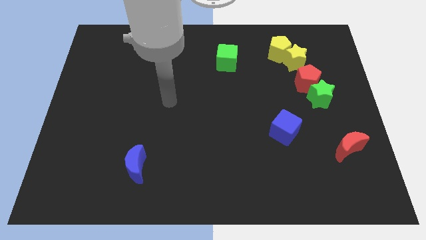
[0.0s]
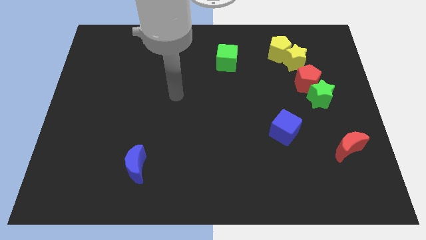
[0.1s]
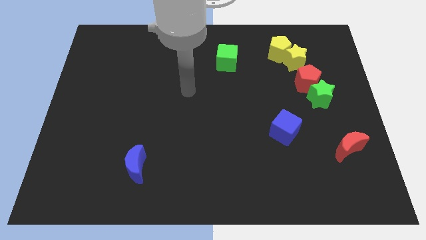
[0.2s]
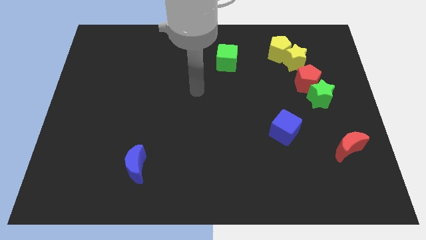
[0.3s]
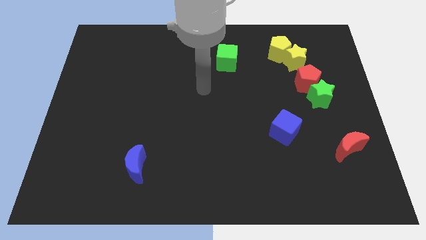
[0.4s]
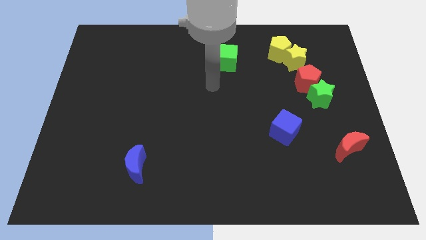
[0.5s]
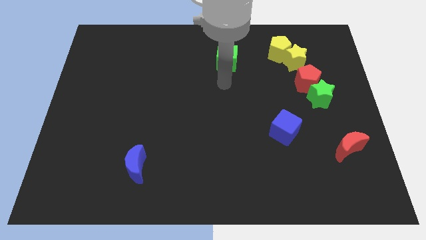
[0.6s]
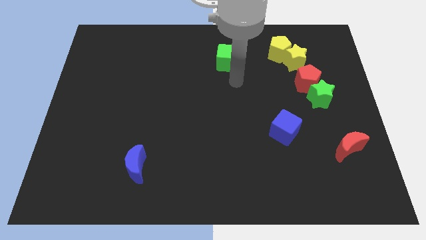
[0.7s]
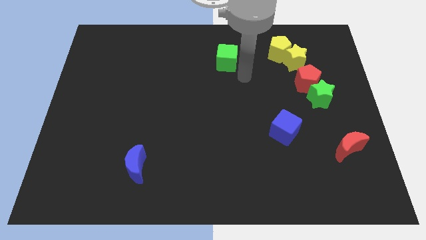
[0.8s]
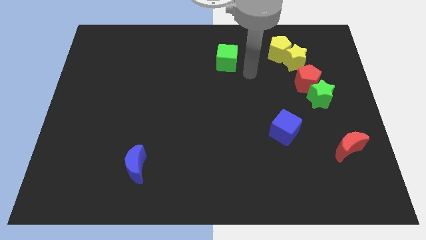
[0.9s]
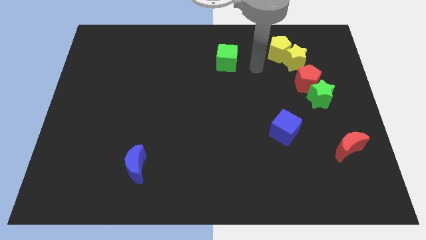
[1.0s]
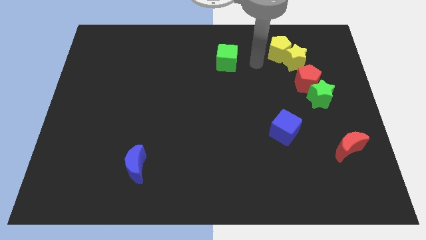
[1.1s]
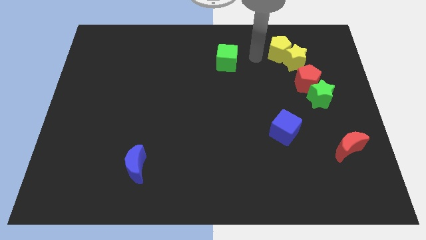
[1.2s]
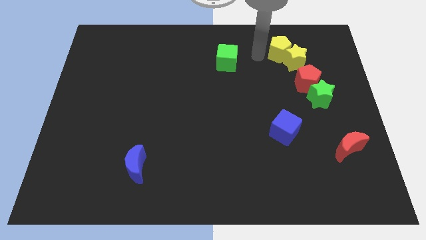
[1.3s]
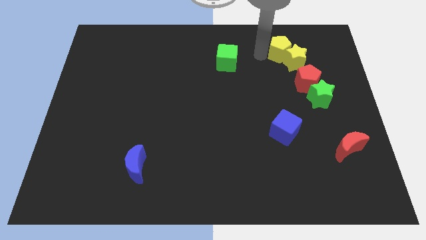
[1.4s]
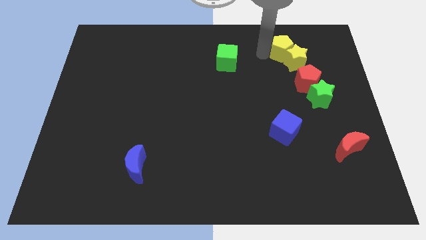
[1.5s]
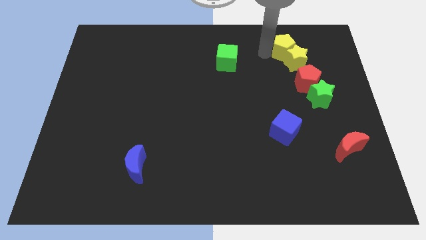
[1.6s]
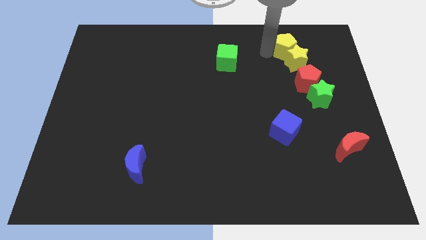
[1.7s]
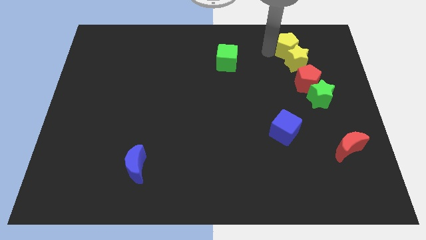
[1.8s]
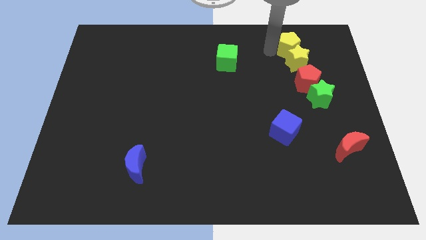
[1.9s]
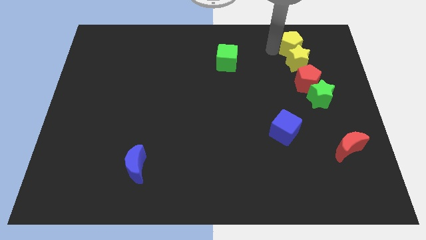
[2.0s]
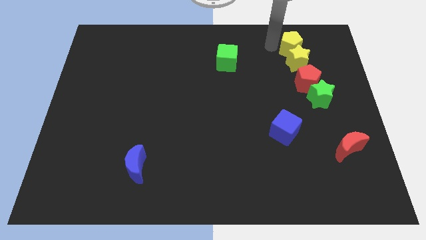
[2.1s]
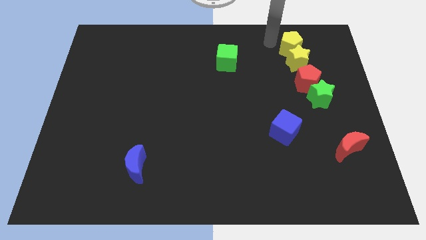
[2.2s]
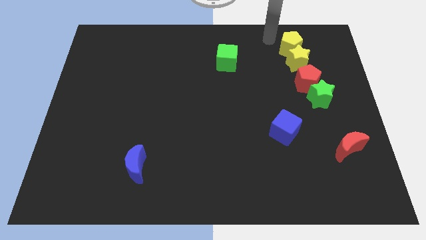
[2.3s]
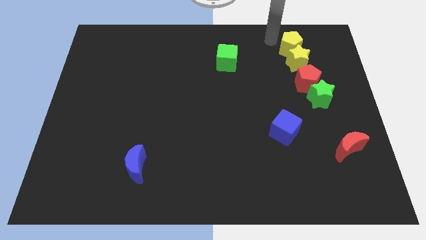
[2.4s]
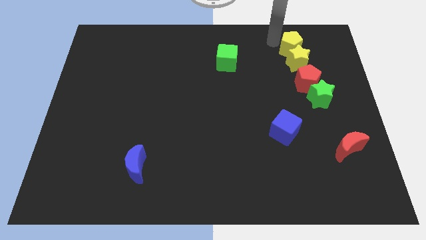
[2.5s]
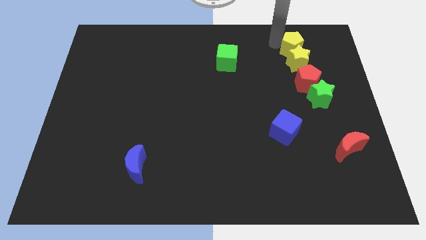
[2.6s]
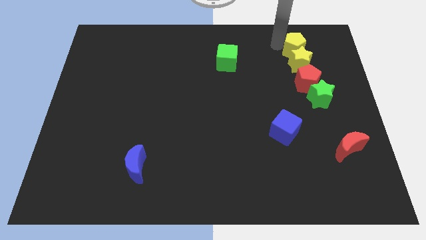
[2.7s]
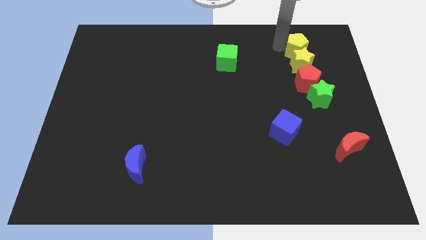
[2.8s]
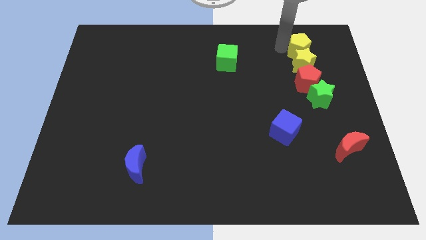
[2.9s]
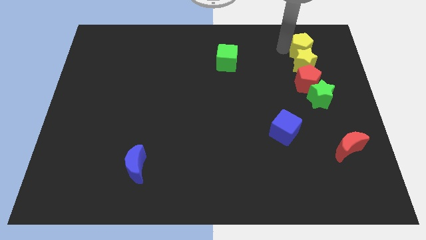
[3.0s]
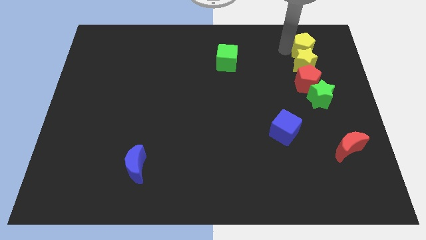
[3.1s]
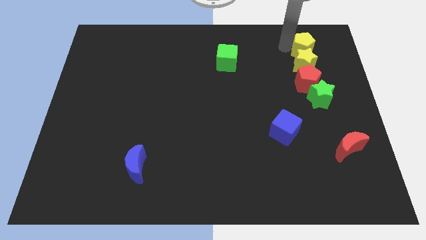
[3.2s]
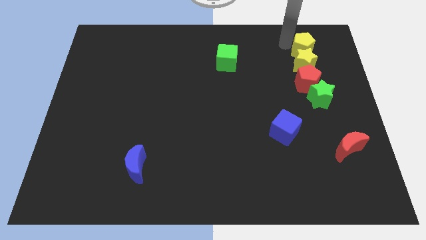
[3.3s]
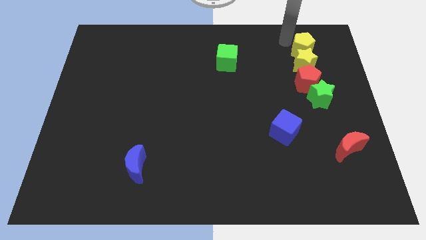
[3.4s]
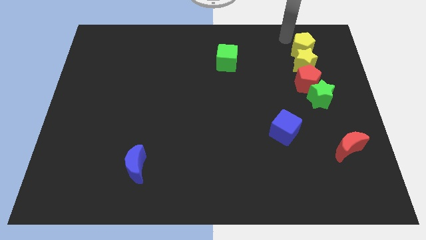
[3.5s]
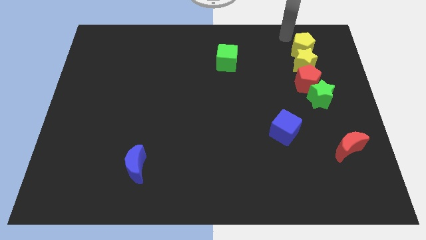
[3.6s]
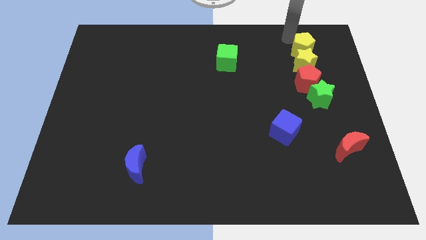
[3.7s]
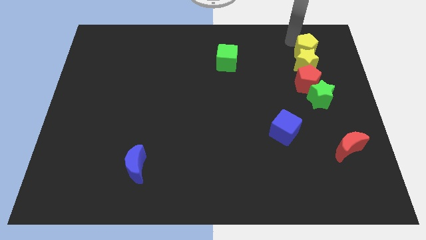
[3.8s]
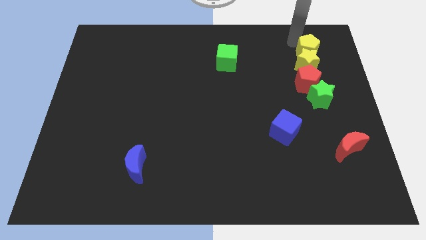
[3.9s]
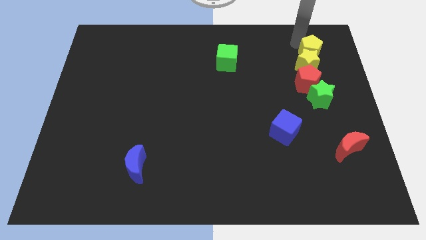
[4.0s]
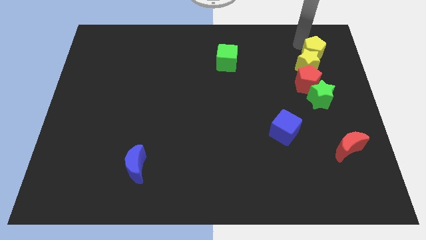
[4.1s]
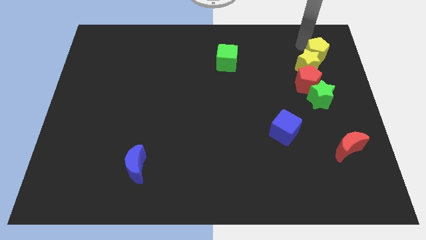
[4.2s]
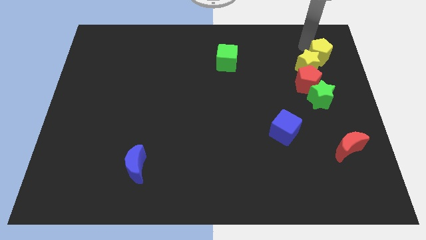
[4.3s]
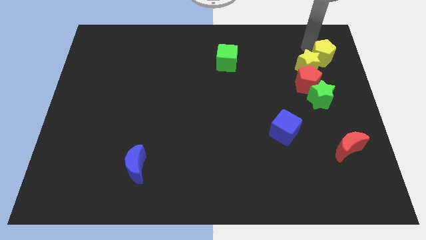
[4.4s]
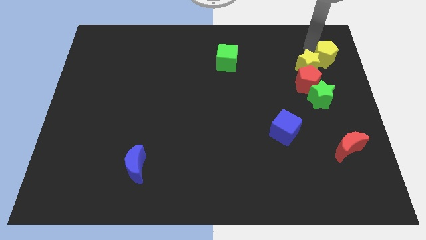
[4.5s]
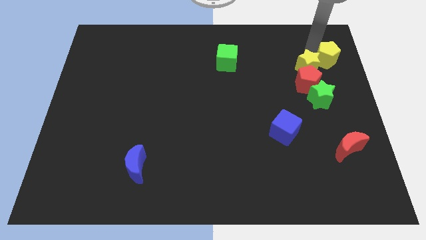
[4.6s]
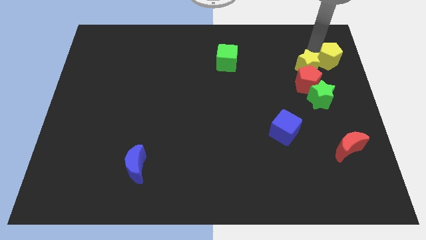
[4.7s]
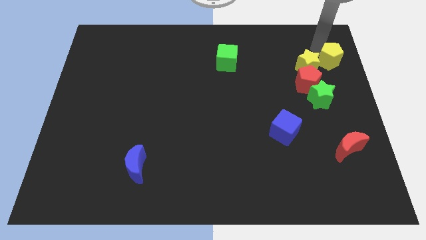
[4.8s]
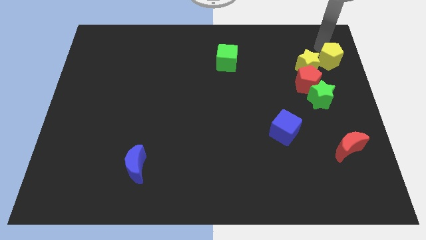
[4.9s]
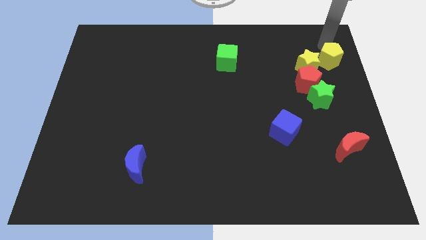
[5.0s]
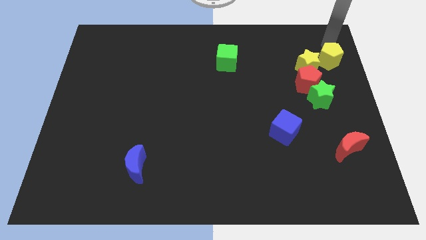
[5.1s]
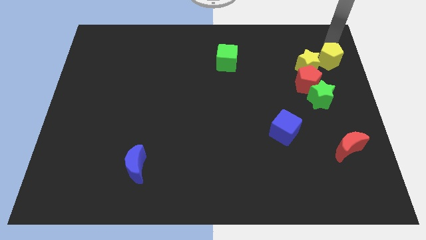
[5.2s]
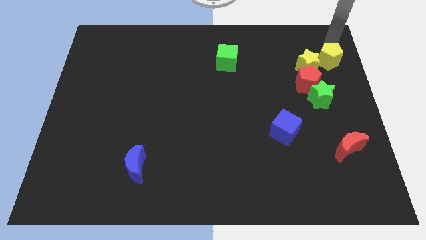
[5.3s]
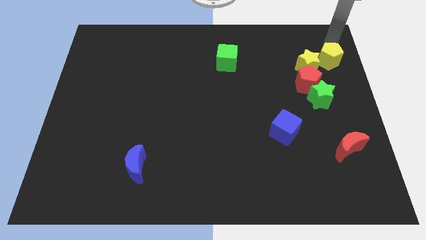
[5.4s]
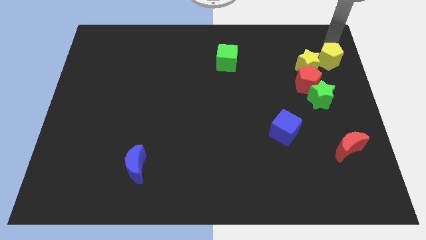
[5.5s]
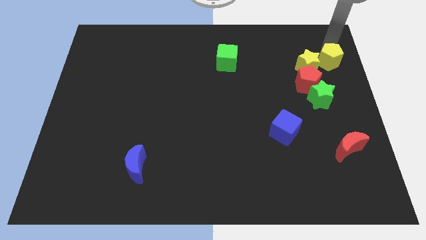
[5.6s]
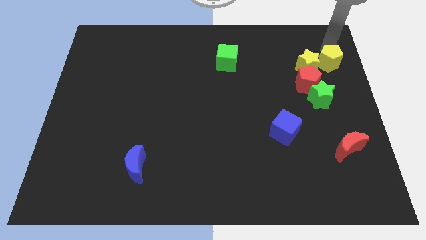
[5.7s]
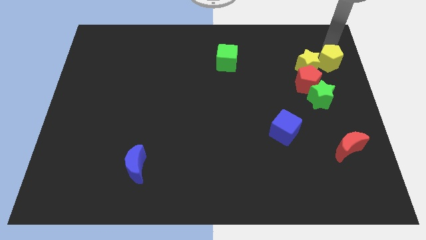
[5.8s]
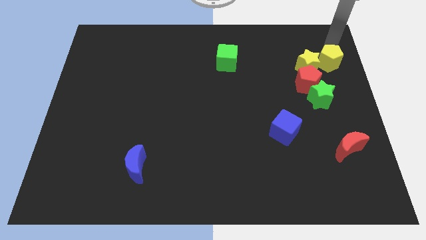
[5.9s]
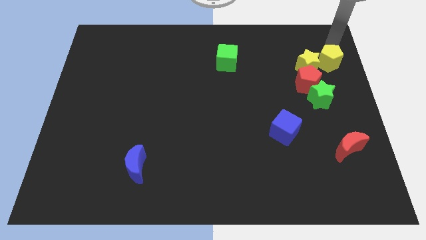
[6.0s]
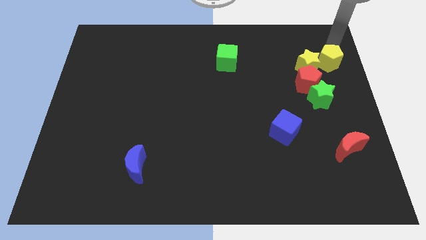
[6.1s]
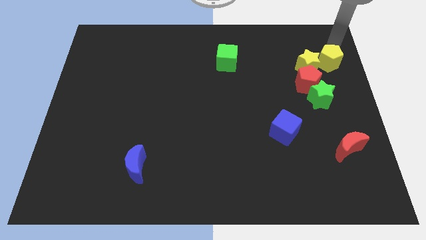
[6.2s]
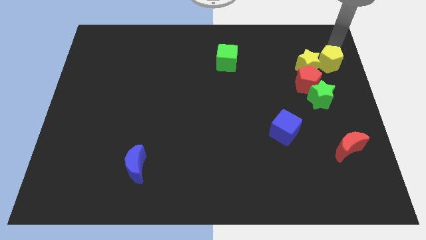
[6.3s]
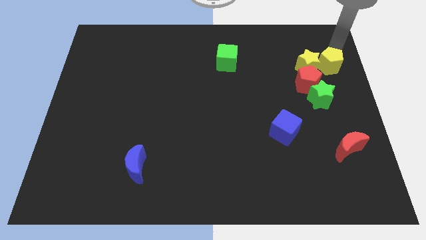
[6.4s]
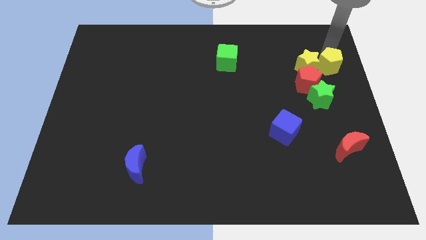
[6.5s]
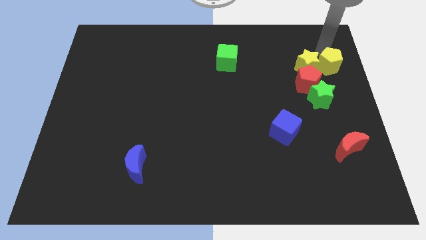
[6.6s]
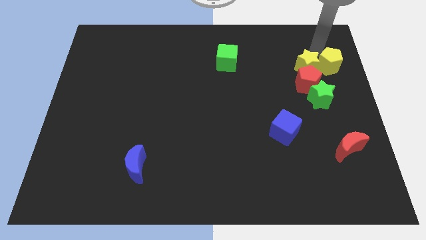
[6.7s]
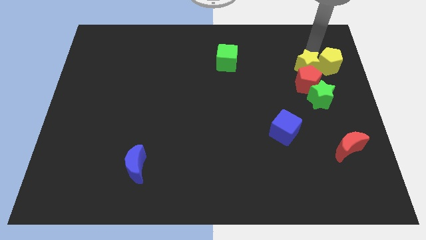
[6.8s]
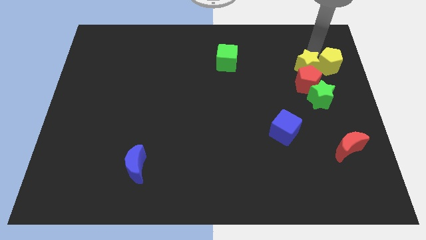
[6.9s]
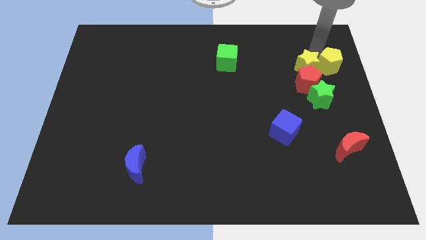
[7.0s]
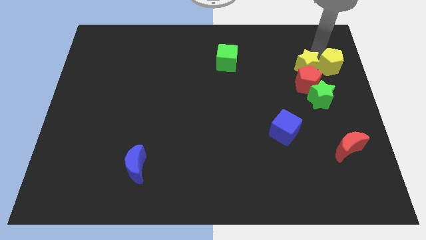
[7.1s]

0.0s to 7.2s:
push the yellow pentagon to the right side
